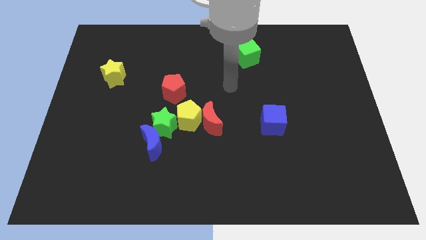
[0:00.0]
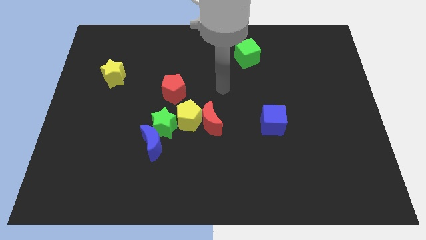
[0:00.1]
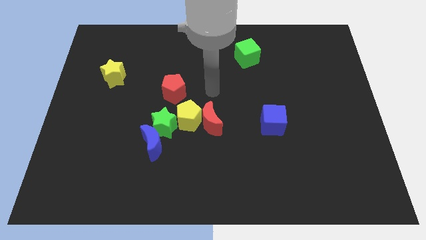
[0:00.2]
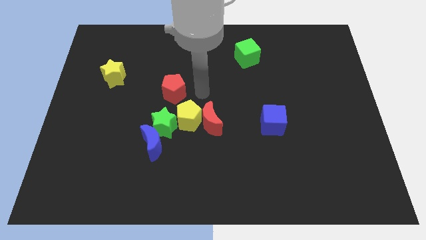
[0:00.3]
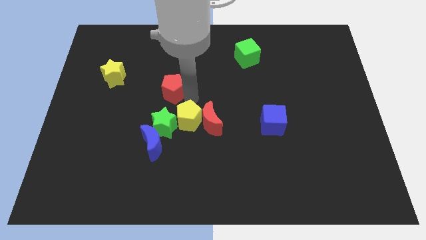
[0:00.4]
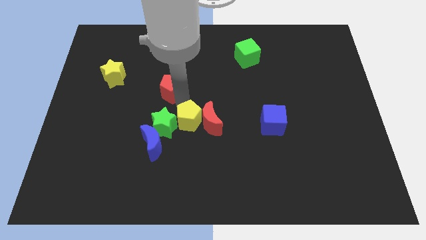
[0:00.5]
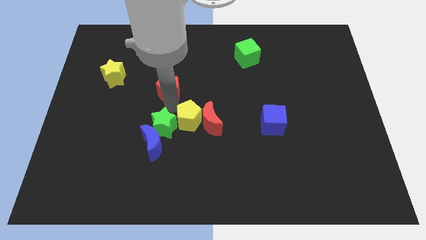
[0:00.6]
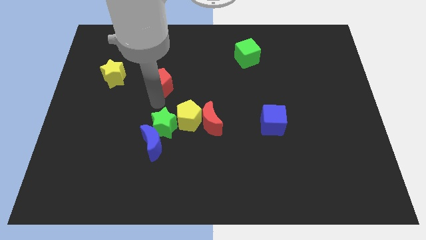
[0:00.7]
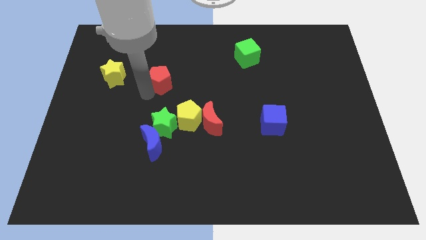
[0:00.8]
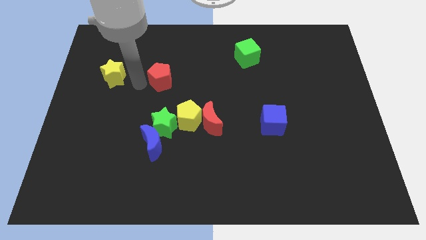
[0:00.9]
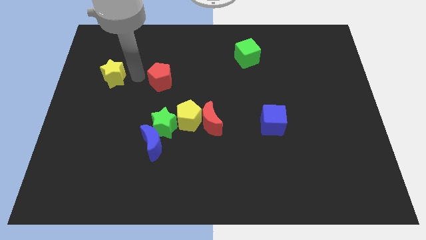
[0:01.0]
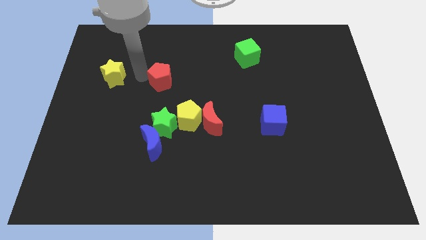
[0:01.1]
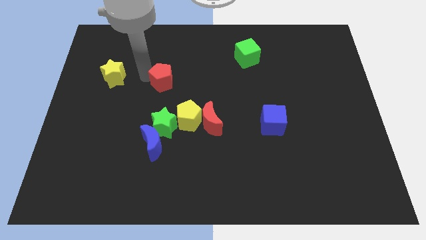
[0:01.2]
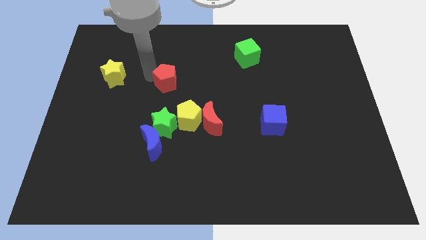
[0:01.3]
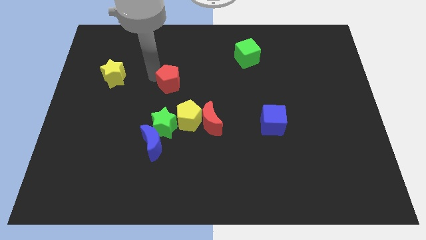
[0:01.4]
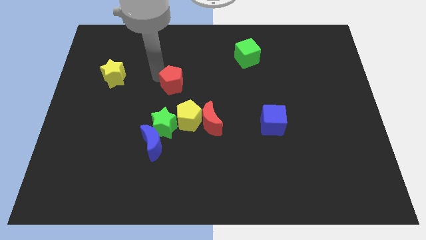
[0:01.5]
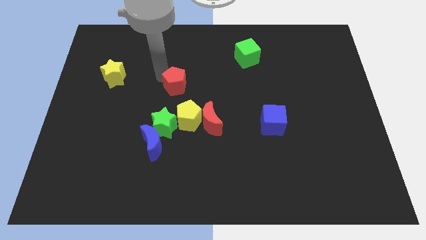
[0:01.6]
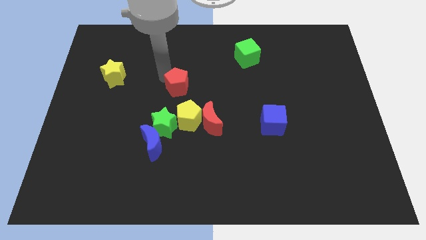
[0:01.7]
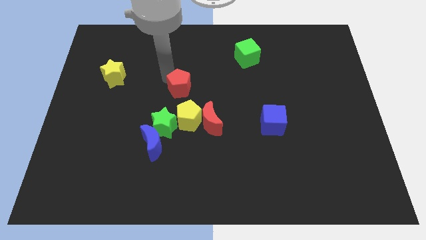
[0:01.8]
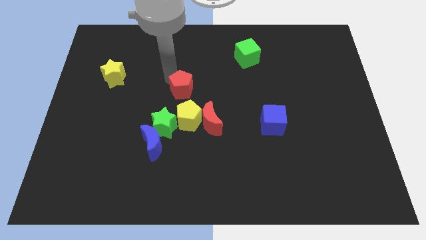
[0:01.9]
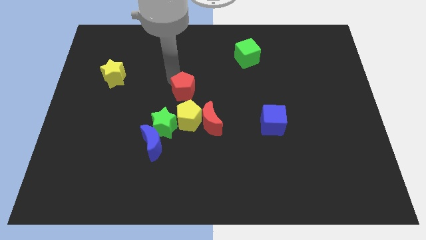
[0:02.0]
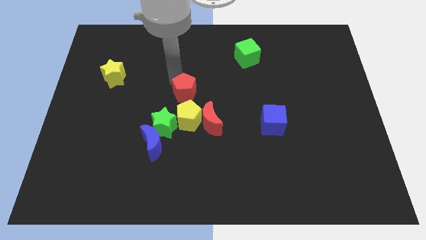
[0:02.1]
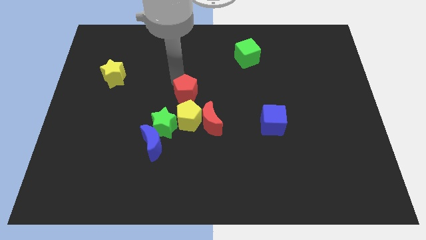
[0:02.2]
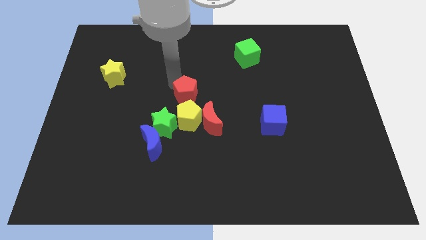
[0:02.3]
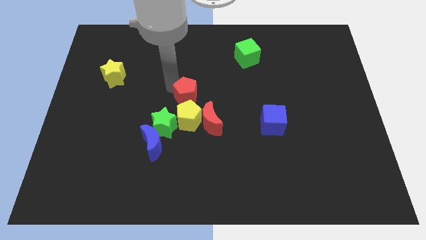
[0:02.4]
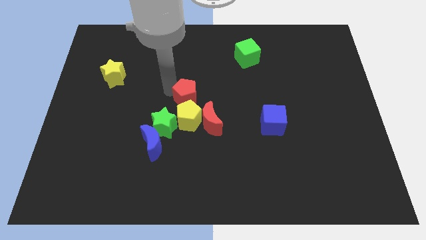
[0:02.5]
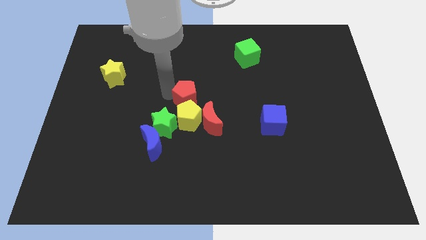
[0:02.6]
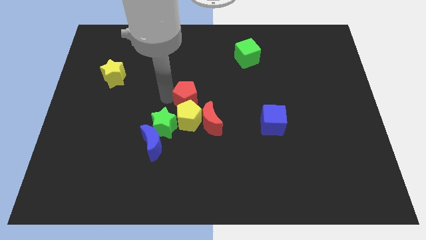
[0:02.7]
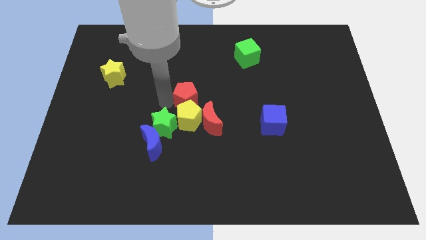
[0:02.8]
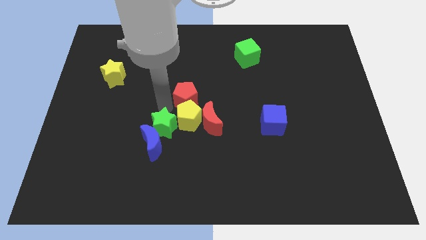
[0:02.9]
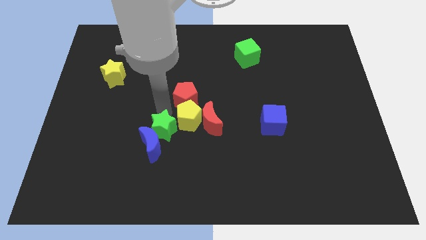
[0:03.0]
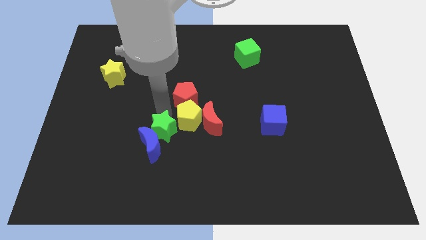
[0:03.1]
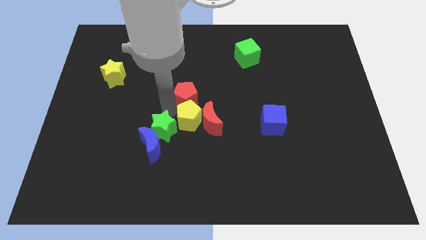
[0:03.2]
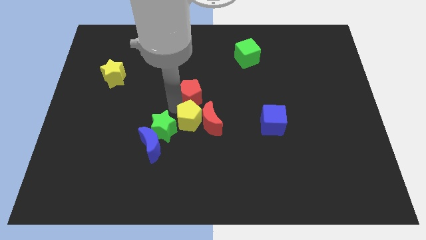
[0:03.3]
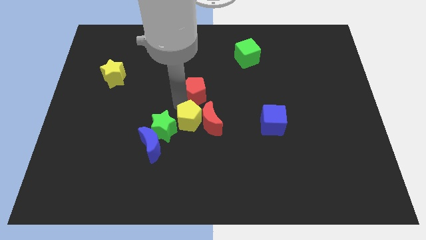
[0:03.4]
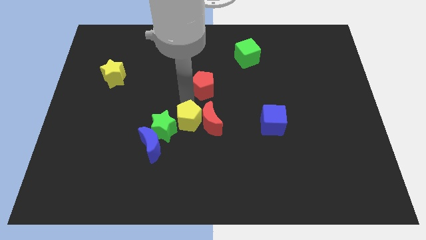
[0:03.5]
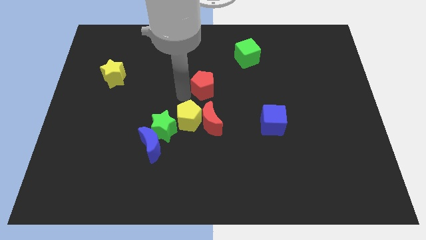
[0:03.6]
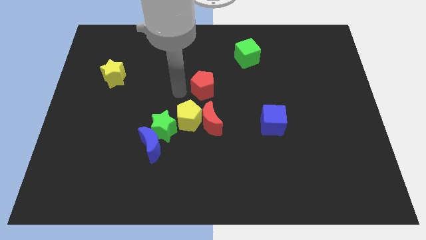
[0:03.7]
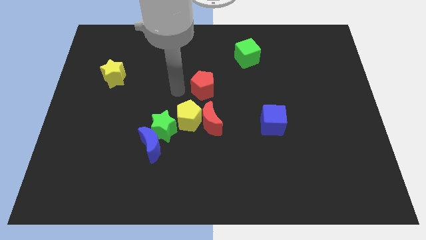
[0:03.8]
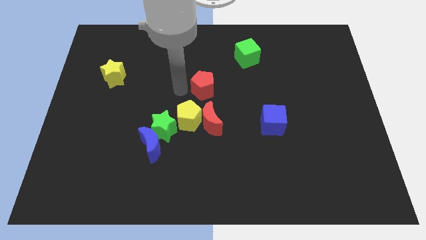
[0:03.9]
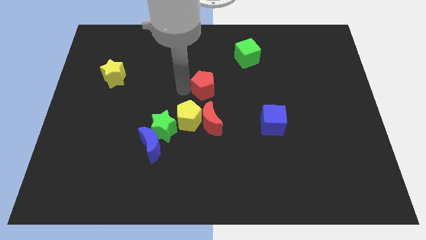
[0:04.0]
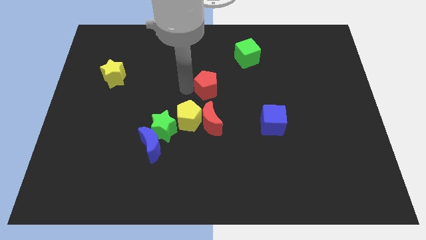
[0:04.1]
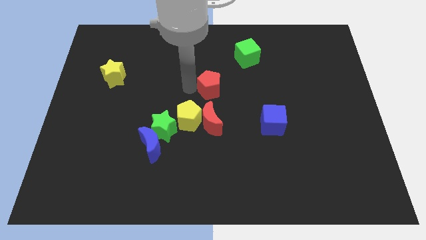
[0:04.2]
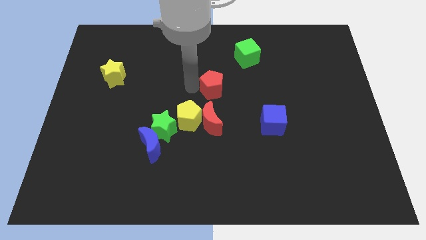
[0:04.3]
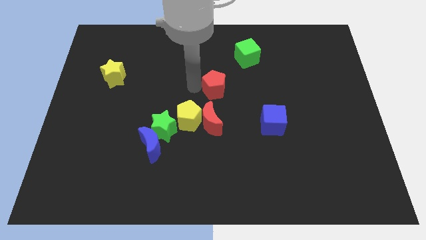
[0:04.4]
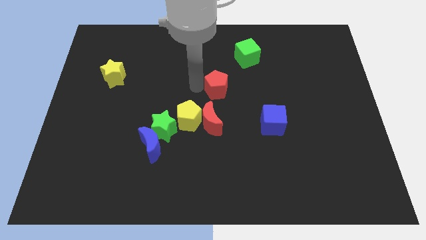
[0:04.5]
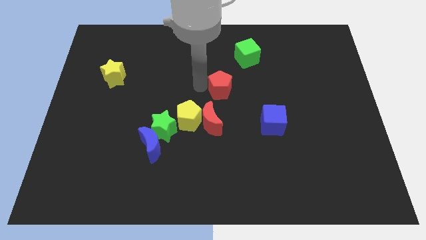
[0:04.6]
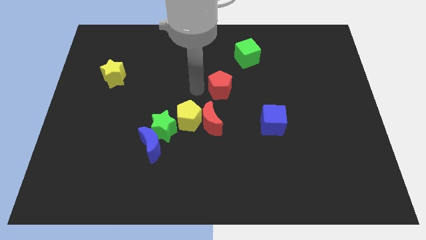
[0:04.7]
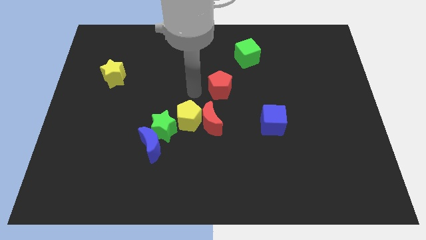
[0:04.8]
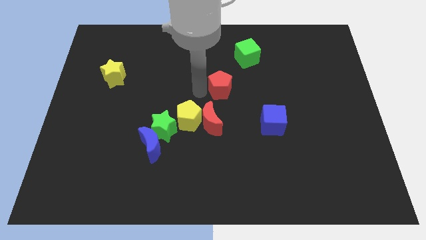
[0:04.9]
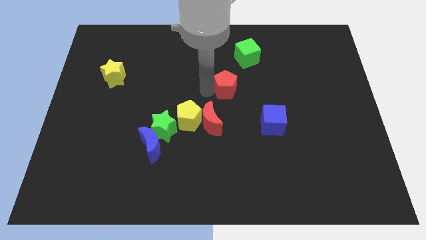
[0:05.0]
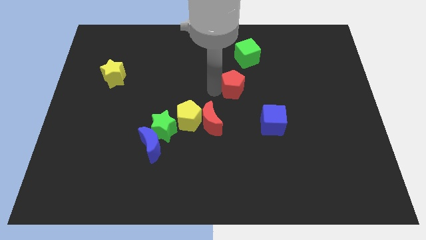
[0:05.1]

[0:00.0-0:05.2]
slide the red pentagon to the bottom side of the green cube

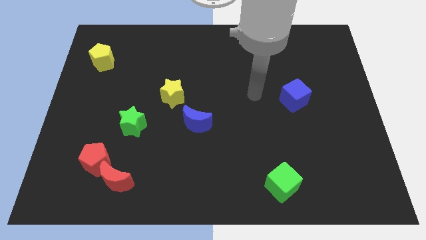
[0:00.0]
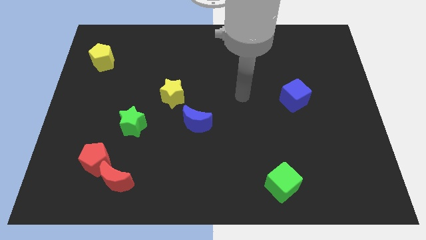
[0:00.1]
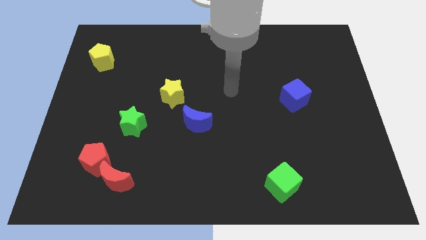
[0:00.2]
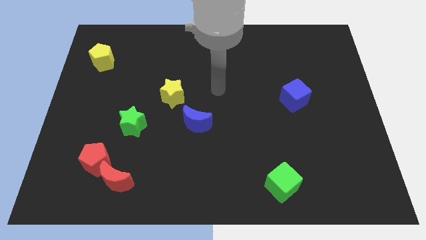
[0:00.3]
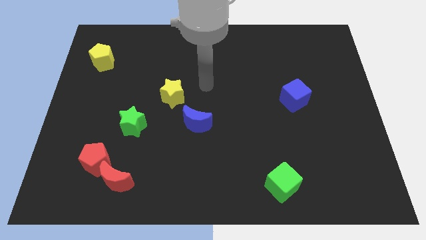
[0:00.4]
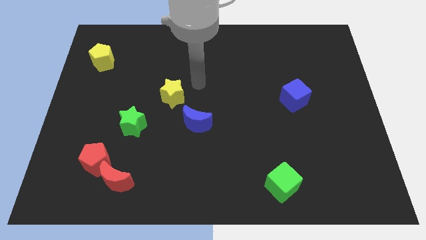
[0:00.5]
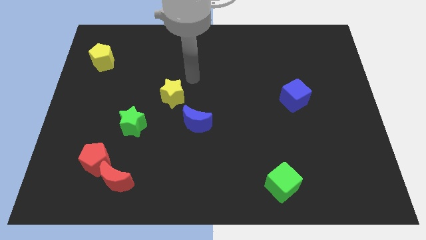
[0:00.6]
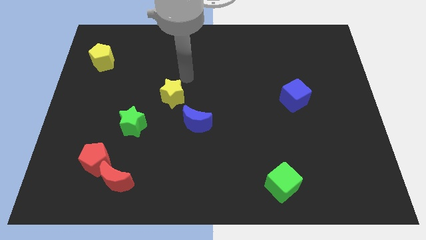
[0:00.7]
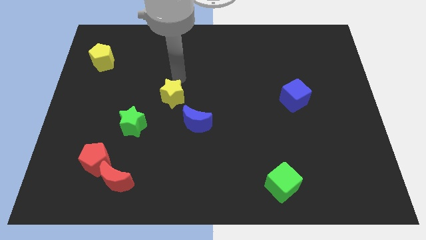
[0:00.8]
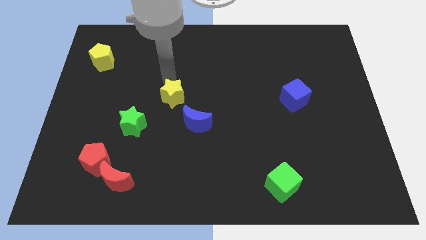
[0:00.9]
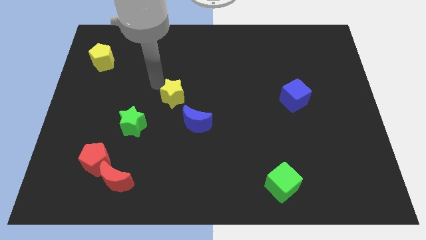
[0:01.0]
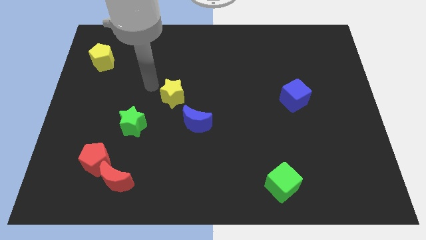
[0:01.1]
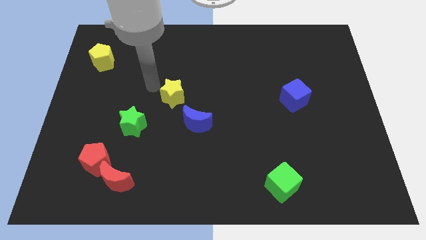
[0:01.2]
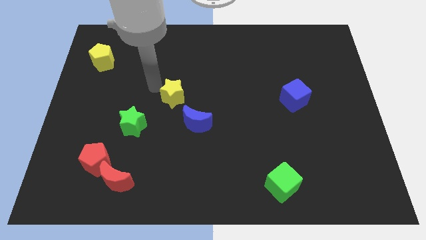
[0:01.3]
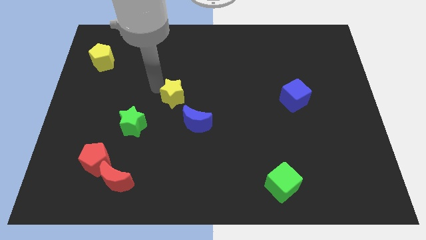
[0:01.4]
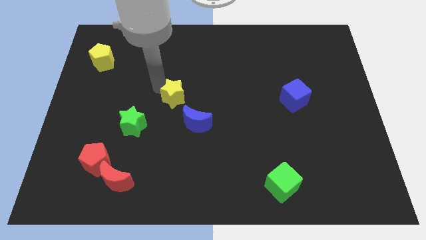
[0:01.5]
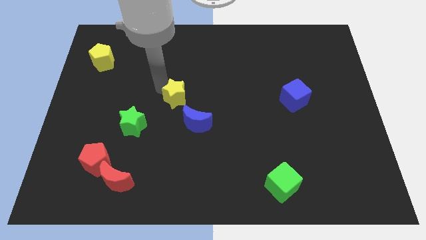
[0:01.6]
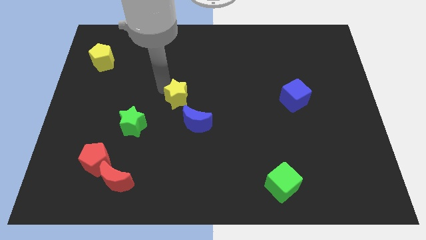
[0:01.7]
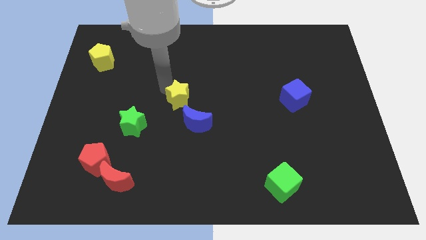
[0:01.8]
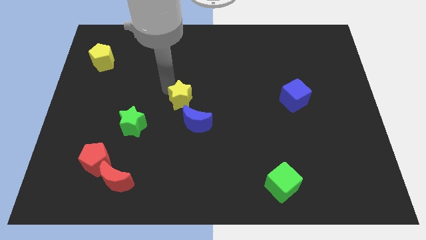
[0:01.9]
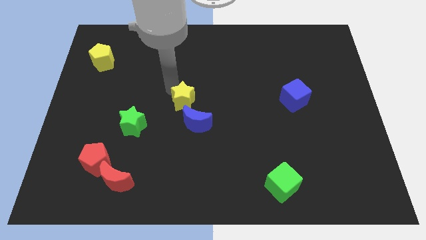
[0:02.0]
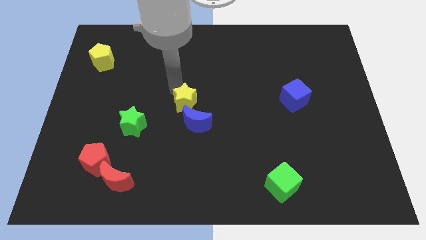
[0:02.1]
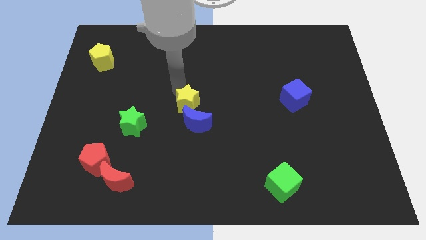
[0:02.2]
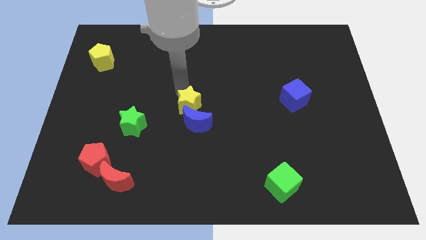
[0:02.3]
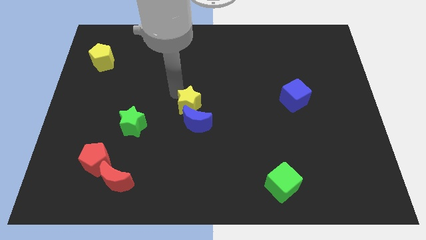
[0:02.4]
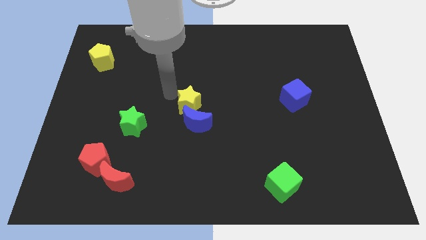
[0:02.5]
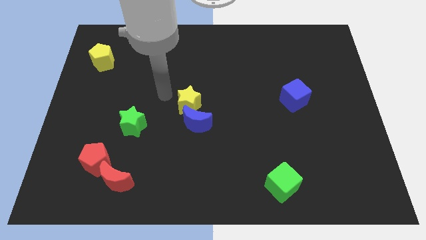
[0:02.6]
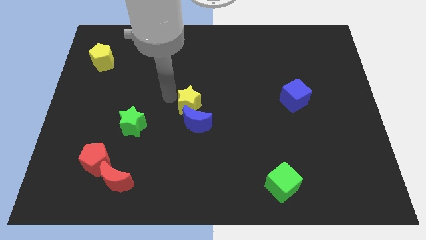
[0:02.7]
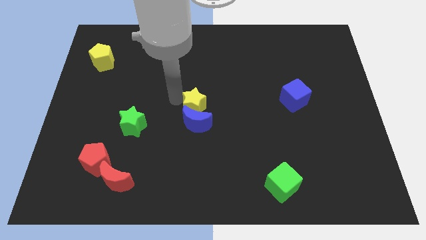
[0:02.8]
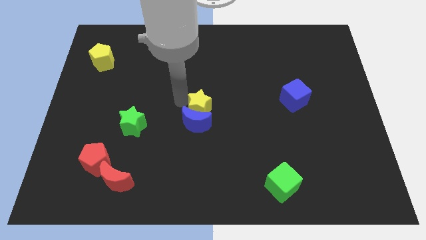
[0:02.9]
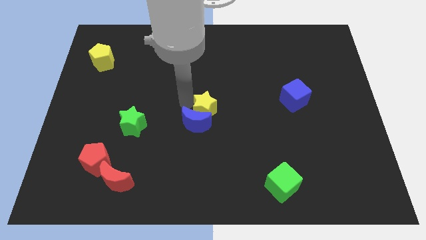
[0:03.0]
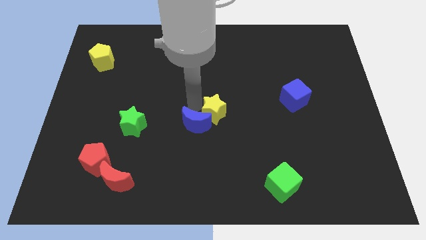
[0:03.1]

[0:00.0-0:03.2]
push the yellow star just right of the blue moon
